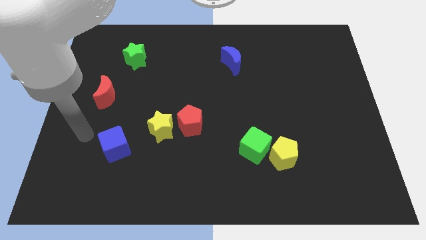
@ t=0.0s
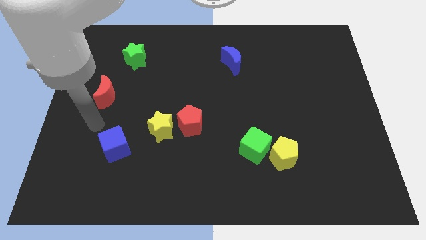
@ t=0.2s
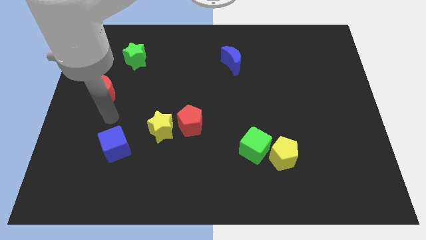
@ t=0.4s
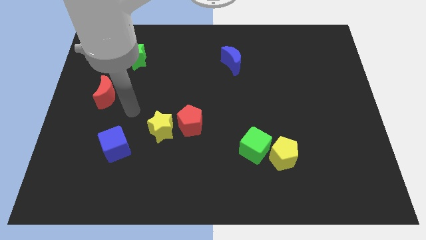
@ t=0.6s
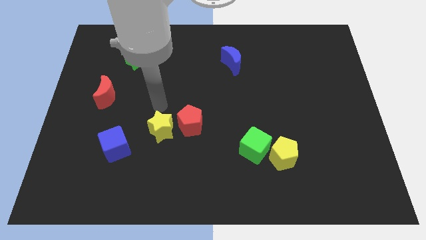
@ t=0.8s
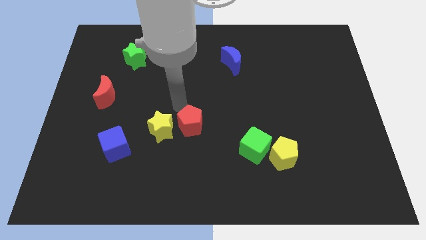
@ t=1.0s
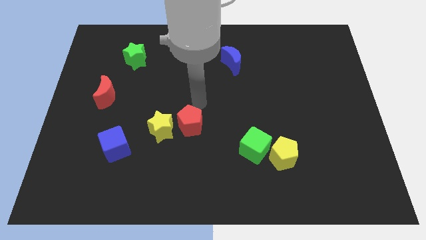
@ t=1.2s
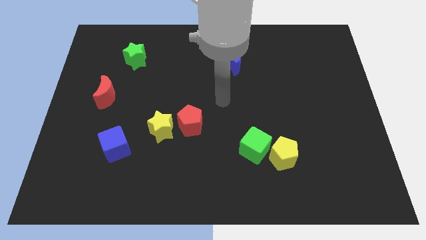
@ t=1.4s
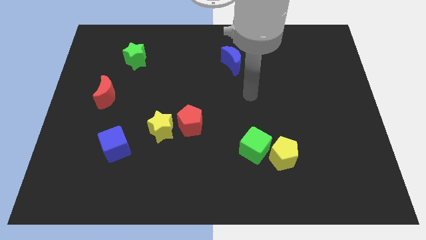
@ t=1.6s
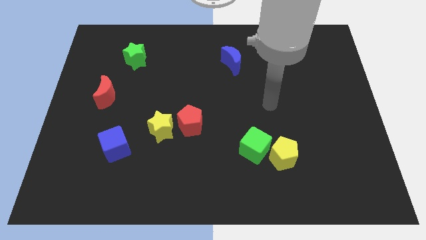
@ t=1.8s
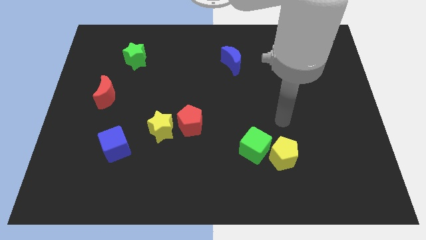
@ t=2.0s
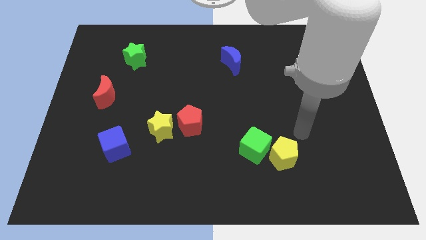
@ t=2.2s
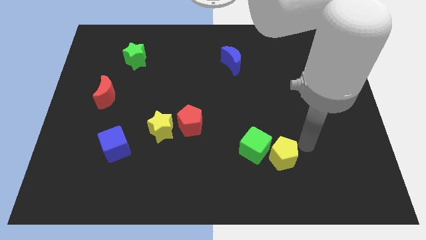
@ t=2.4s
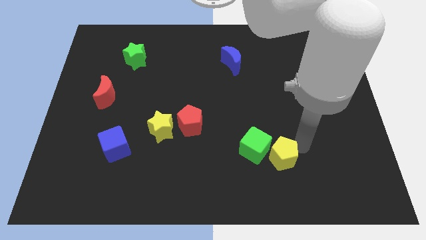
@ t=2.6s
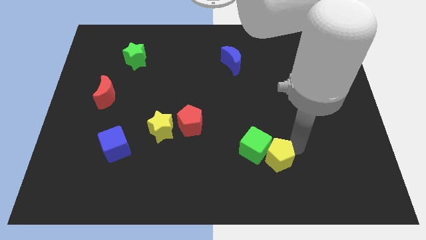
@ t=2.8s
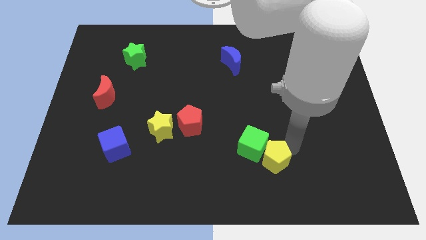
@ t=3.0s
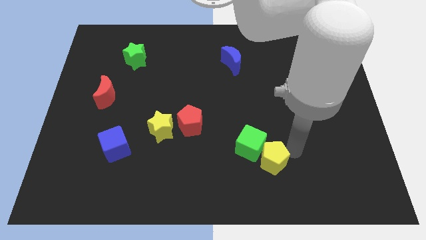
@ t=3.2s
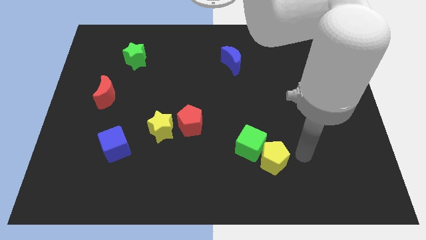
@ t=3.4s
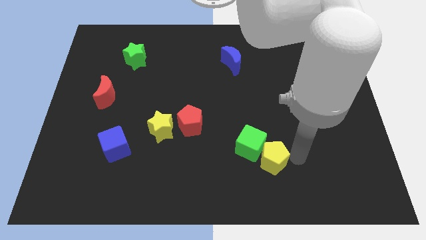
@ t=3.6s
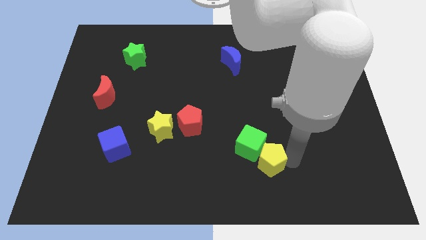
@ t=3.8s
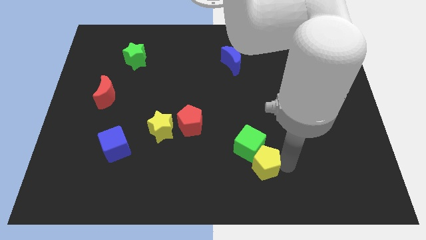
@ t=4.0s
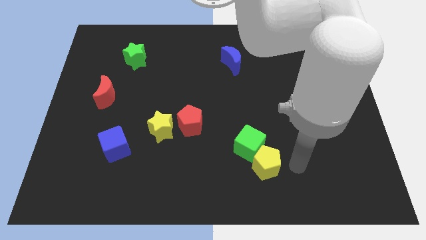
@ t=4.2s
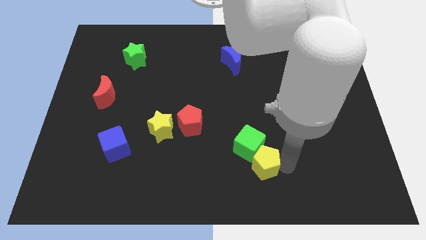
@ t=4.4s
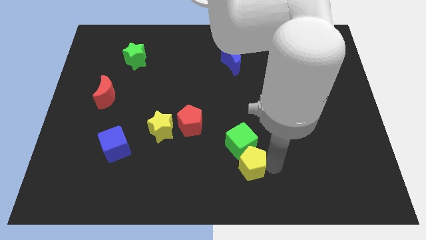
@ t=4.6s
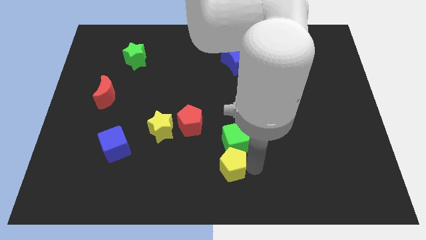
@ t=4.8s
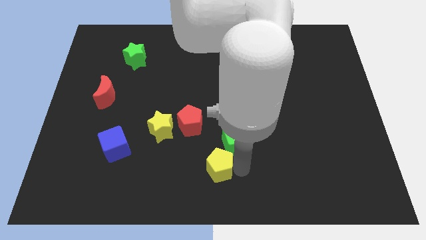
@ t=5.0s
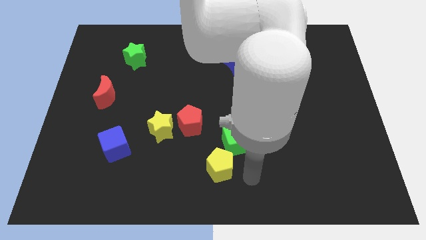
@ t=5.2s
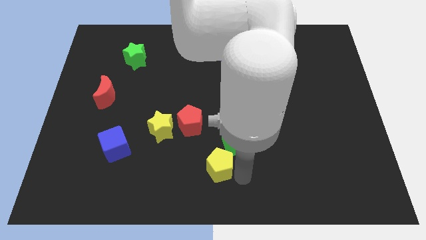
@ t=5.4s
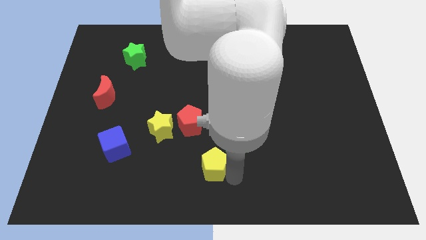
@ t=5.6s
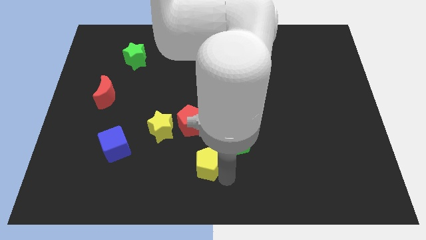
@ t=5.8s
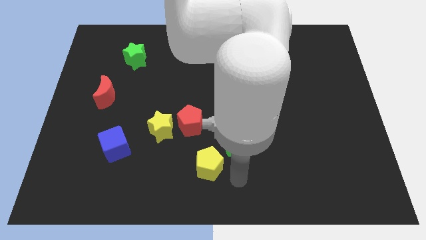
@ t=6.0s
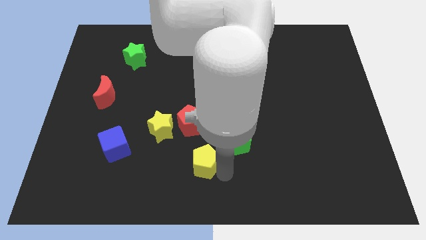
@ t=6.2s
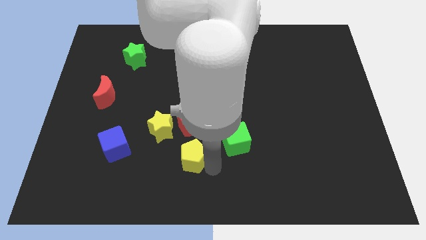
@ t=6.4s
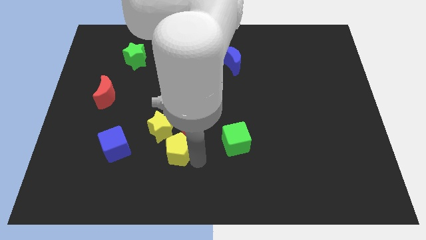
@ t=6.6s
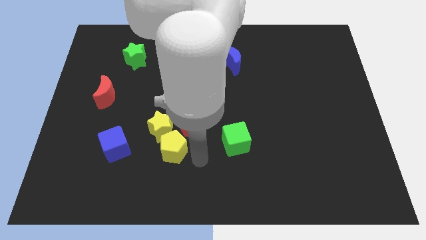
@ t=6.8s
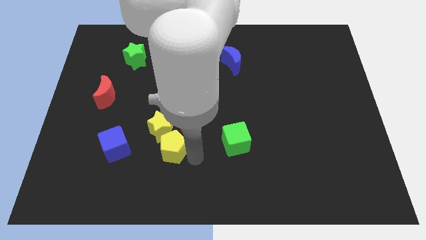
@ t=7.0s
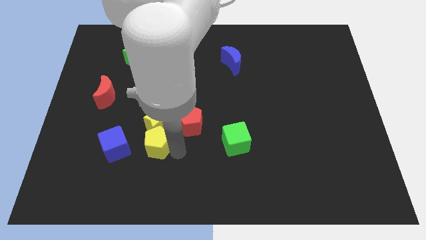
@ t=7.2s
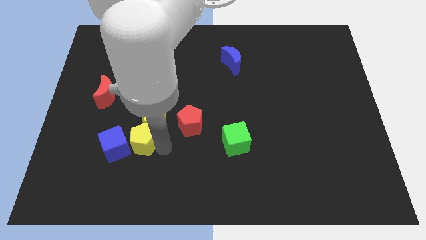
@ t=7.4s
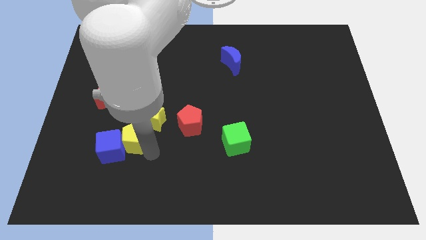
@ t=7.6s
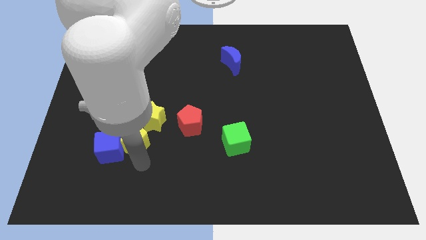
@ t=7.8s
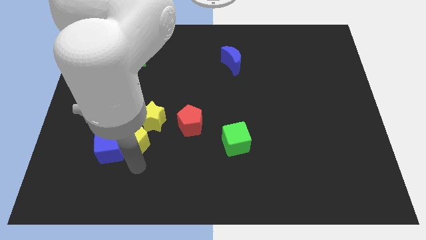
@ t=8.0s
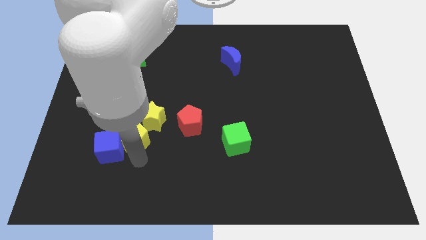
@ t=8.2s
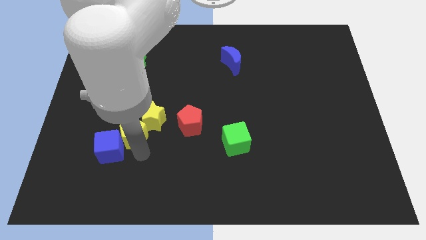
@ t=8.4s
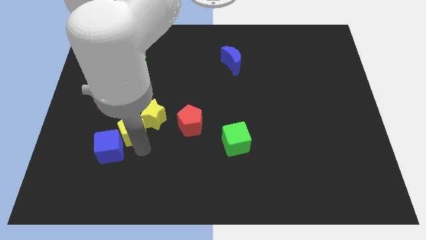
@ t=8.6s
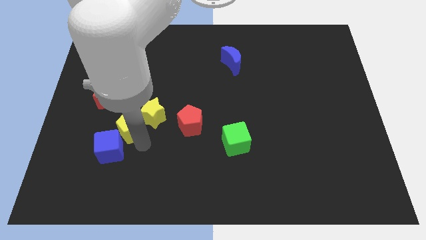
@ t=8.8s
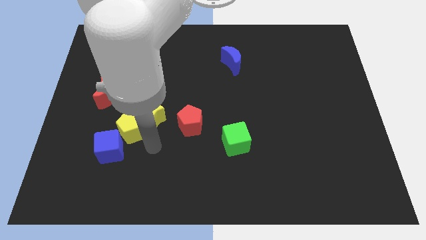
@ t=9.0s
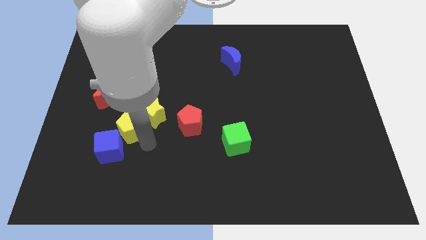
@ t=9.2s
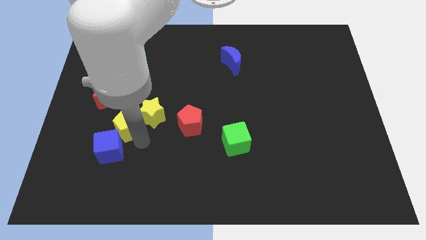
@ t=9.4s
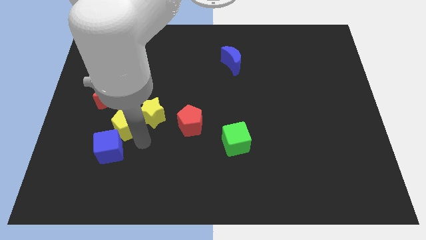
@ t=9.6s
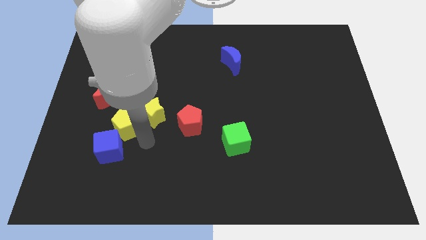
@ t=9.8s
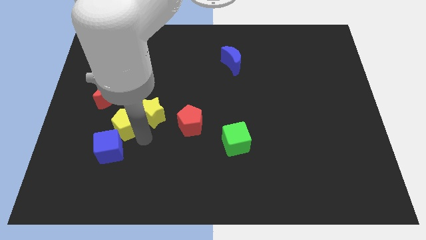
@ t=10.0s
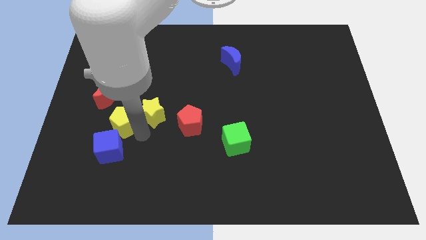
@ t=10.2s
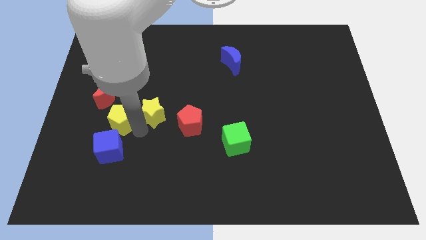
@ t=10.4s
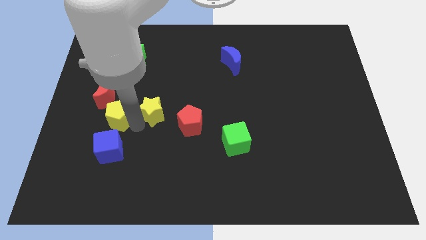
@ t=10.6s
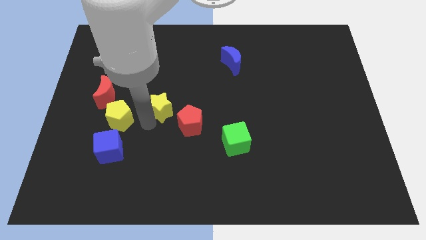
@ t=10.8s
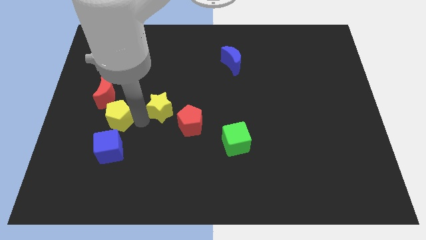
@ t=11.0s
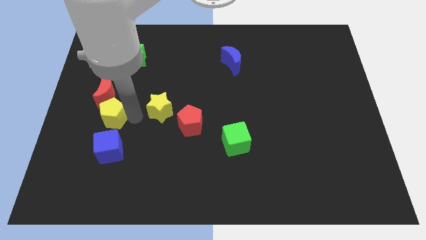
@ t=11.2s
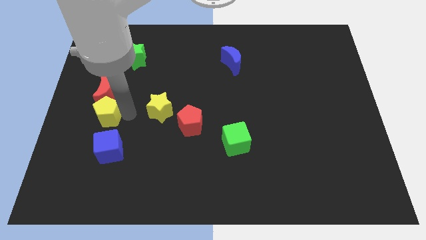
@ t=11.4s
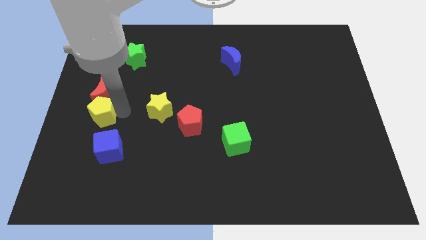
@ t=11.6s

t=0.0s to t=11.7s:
slide the yellow pentagon to the center left
